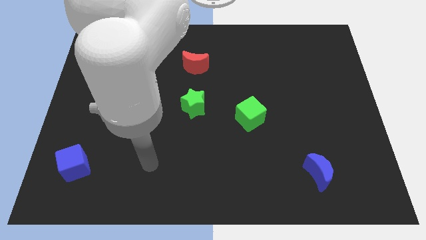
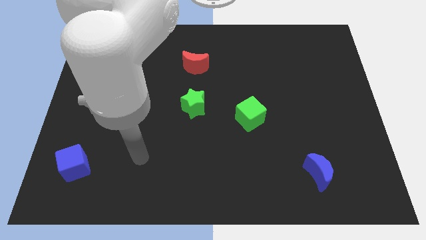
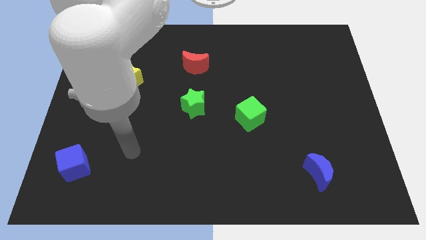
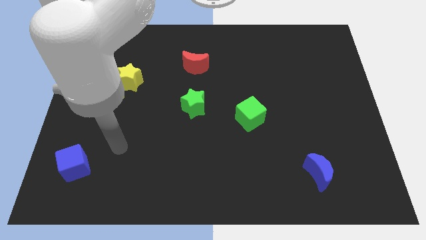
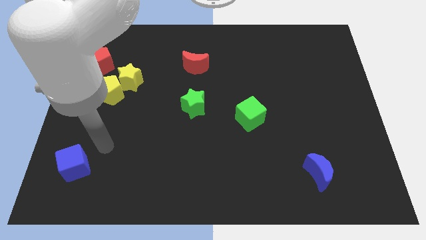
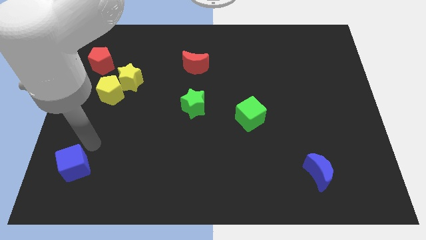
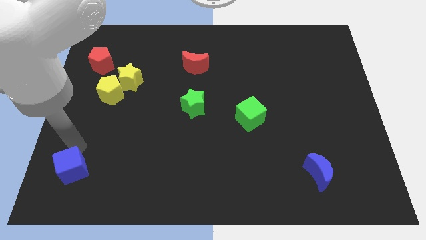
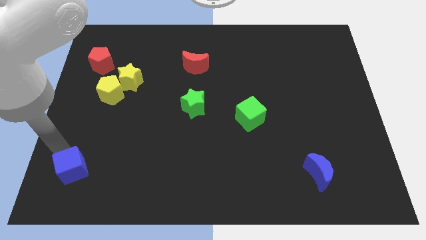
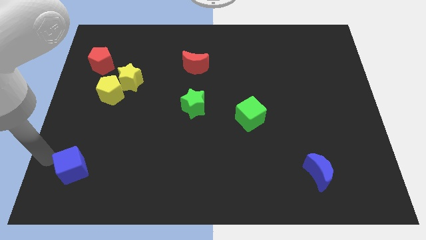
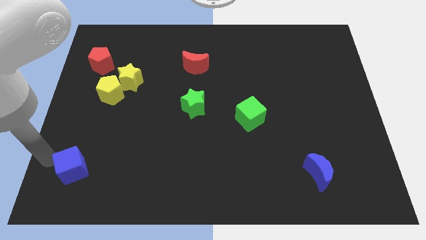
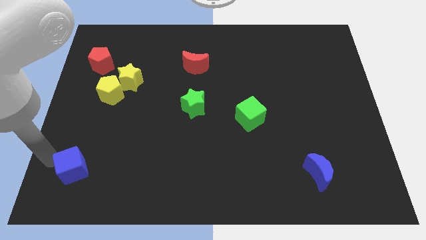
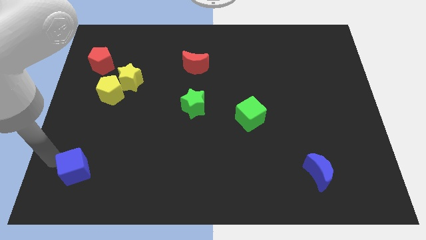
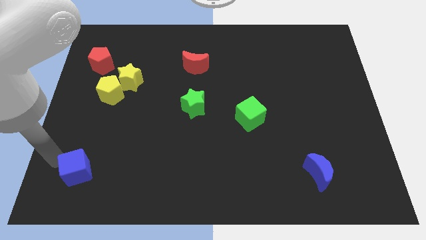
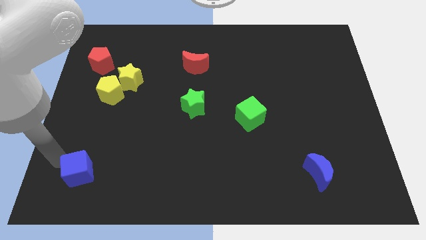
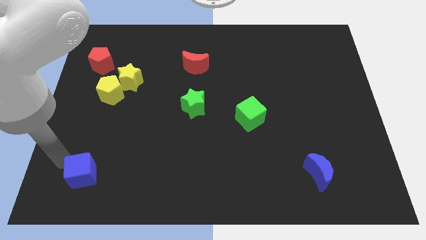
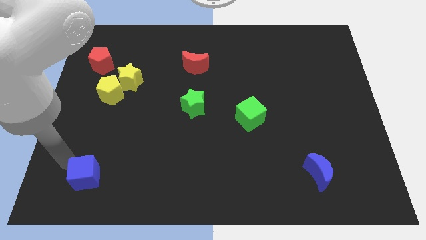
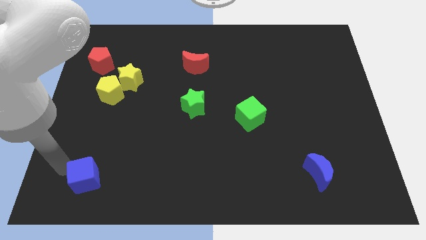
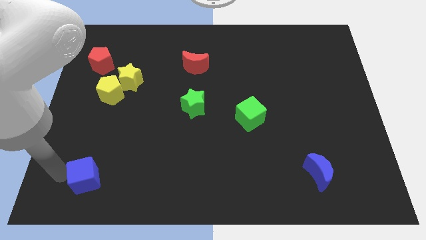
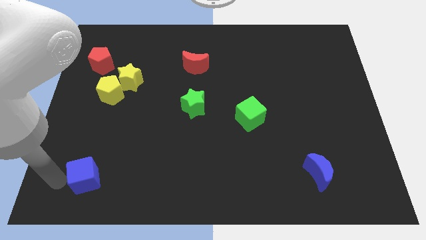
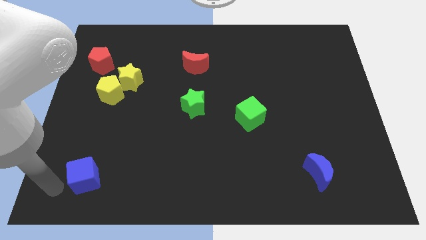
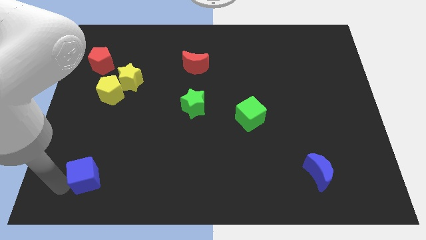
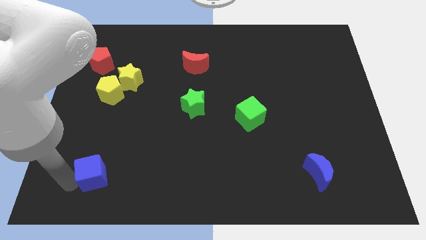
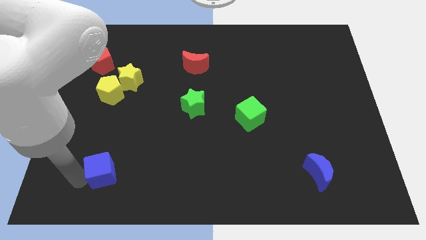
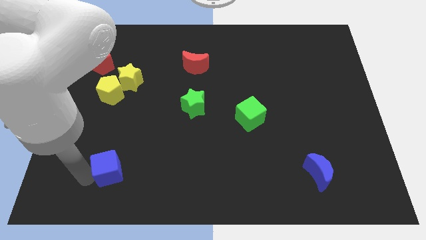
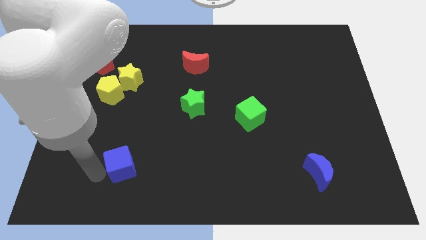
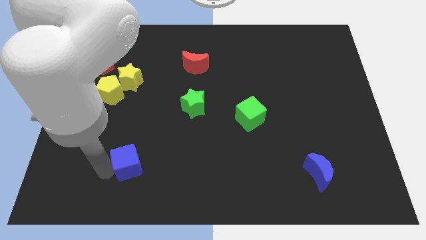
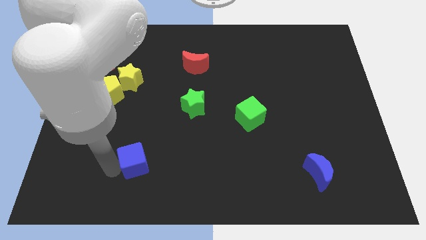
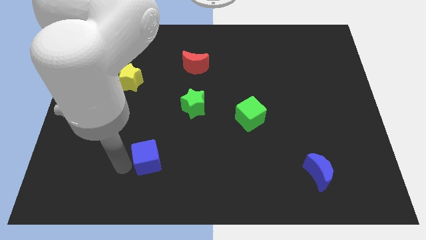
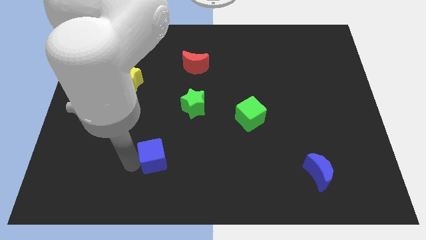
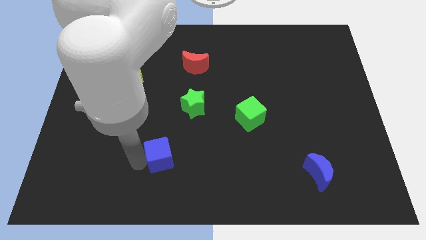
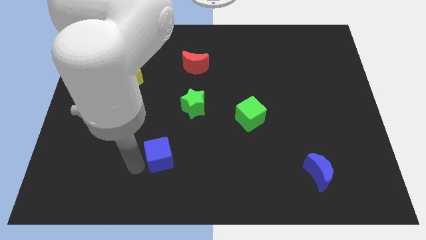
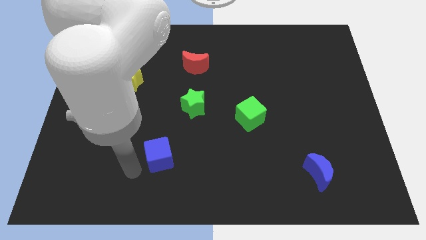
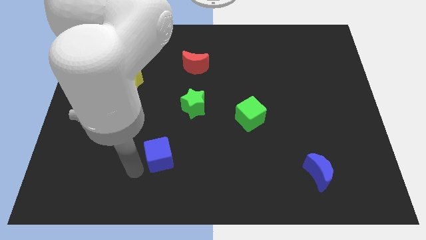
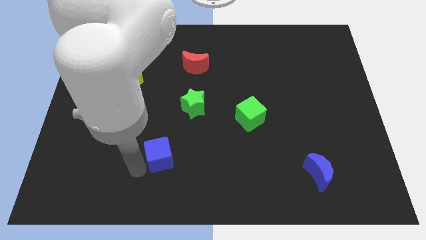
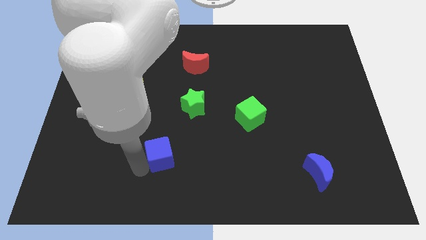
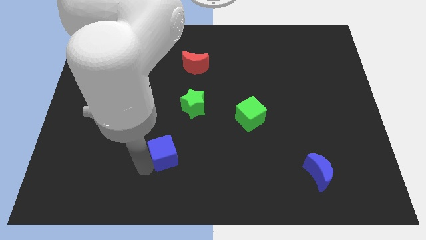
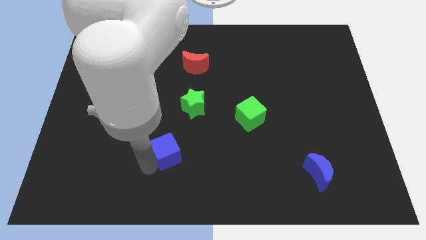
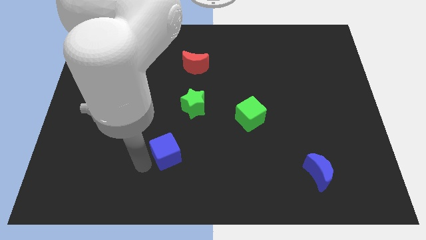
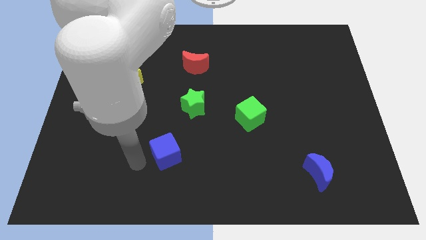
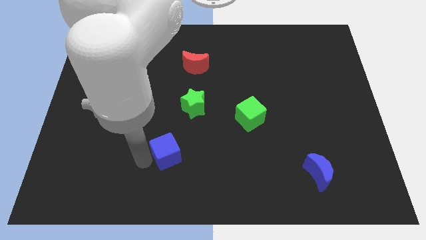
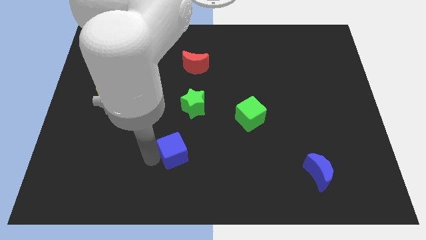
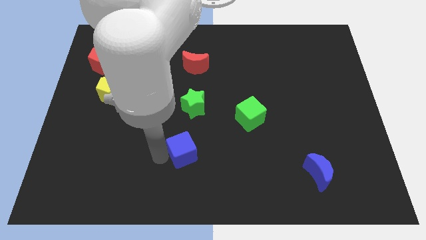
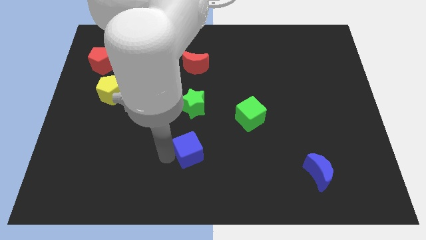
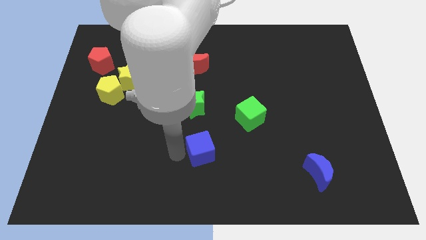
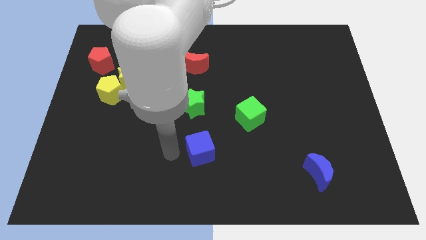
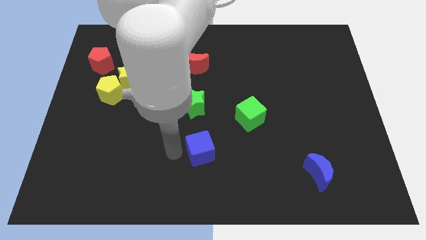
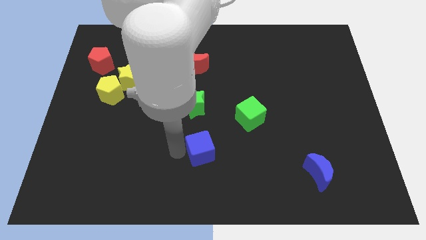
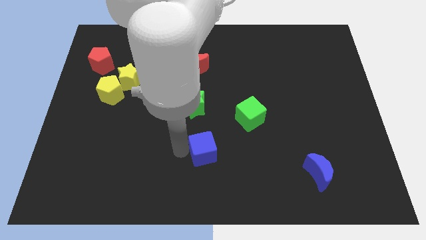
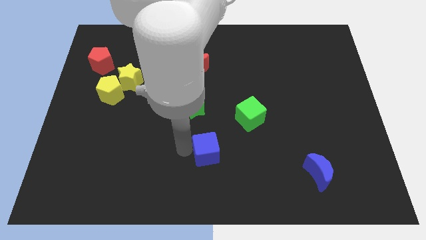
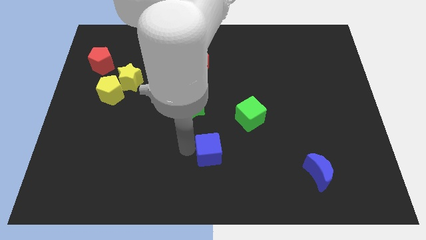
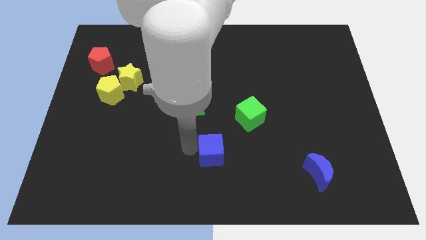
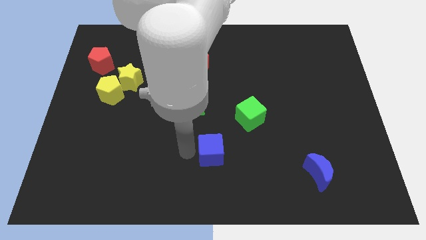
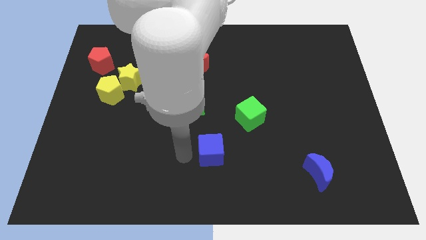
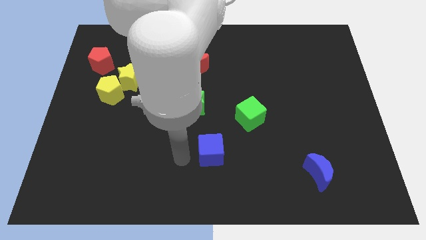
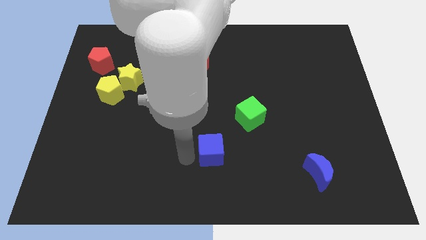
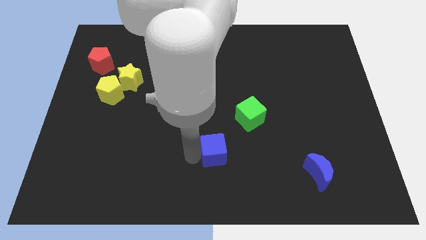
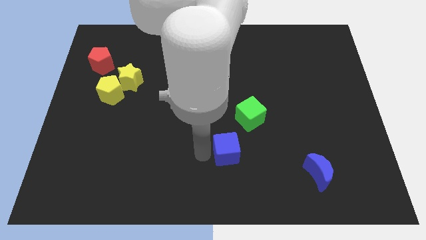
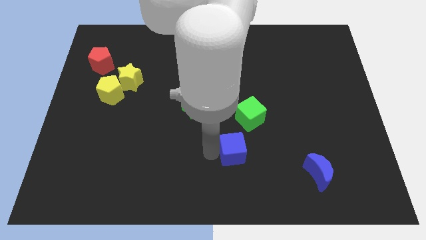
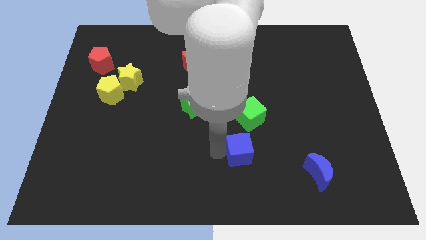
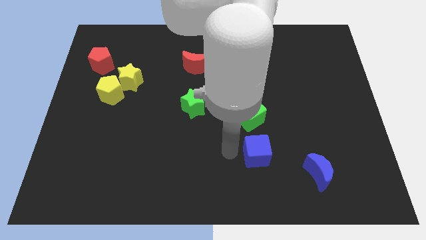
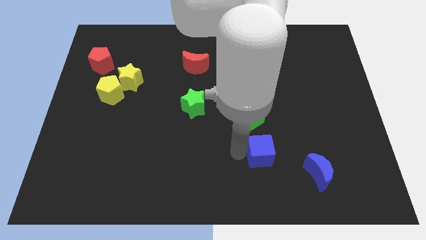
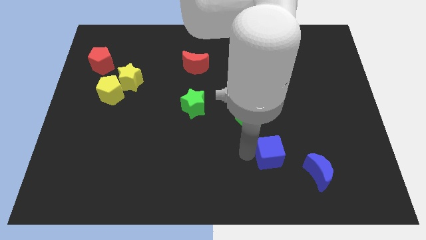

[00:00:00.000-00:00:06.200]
put the blue cube diagonally up and to the left of the blue moon

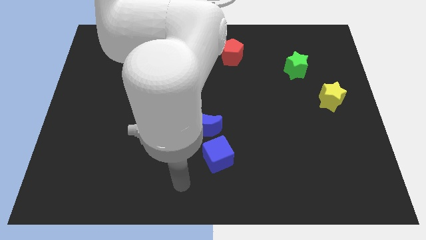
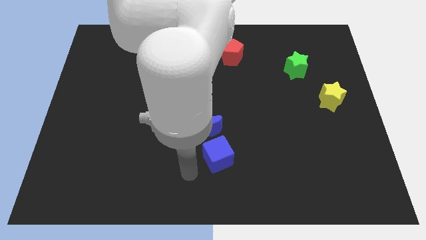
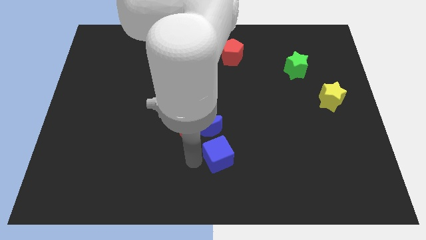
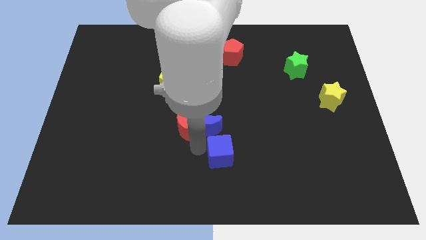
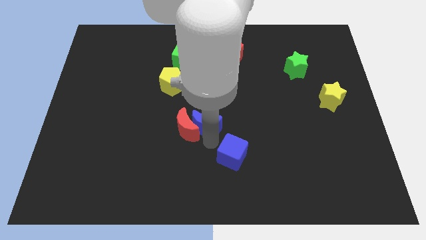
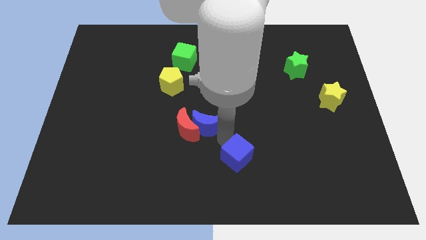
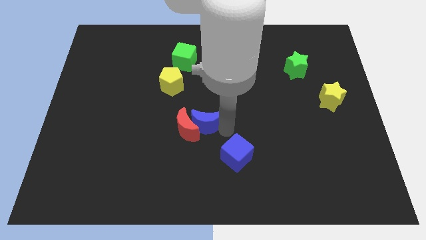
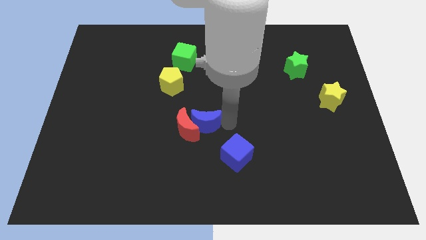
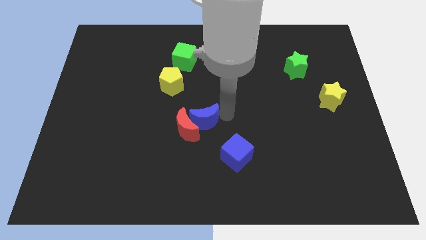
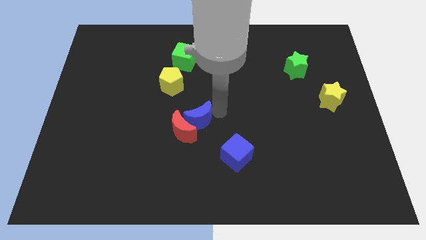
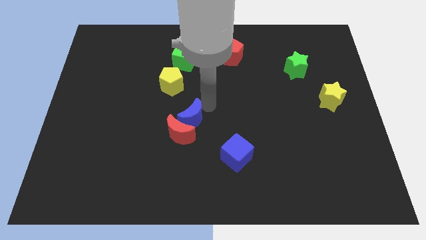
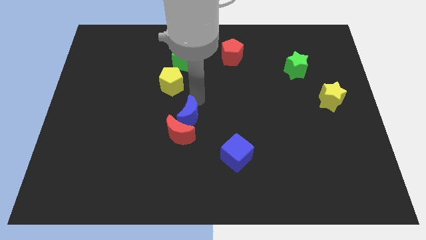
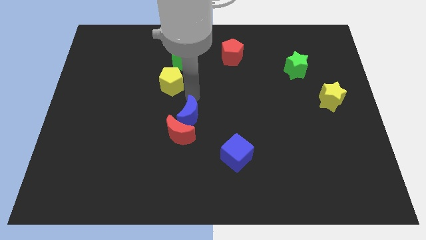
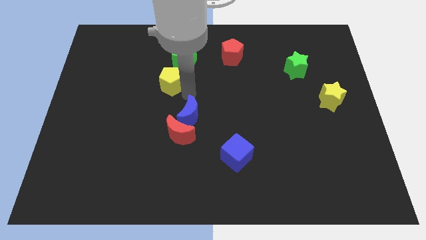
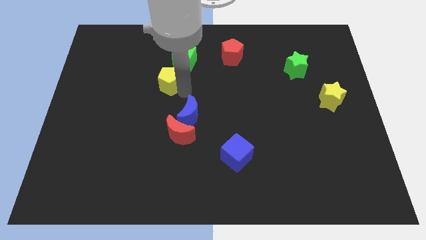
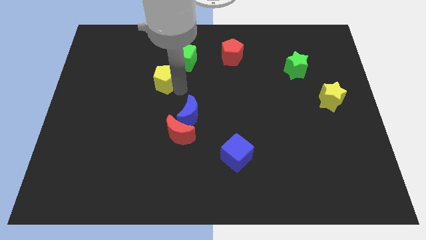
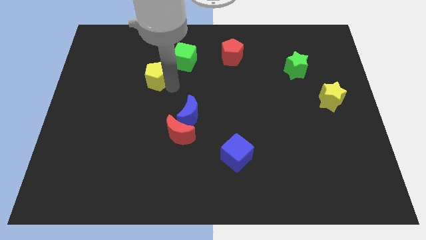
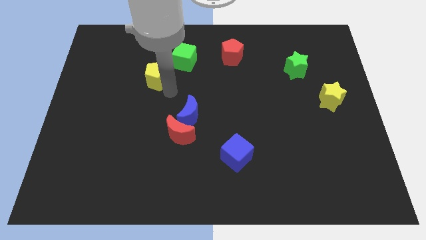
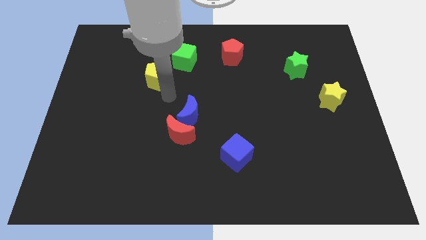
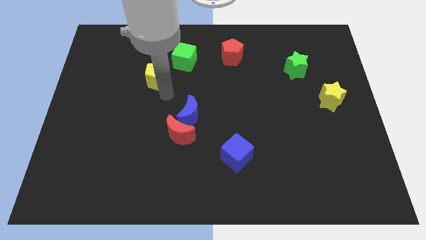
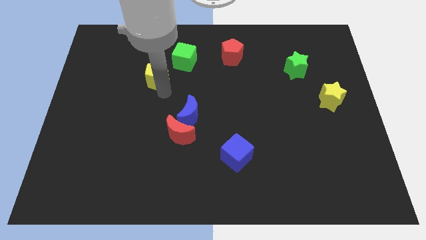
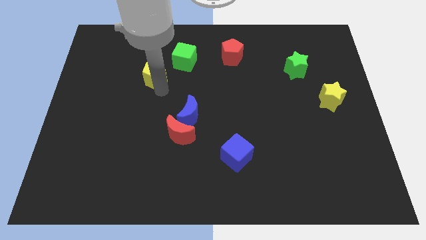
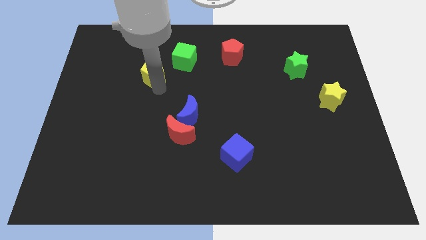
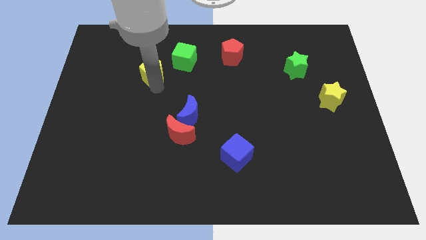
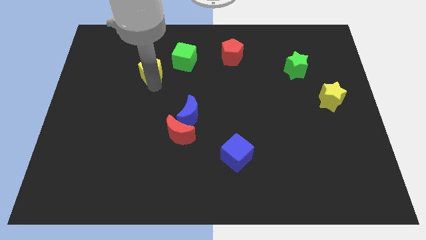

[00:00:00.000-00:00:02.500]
move the yellow pentagon left of the green cube
